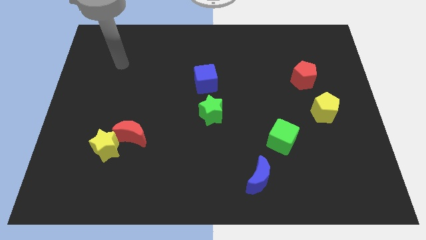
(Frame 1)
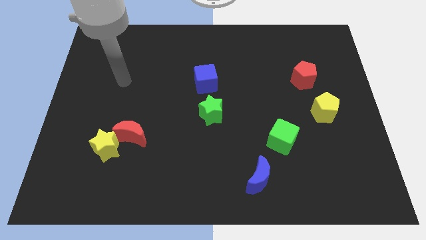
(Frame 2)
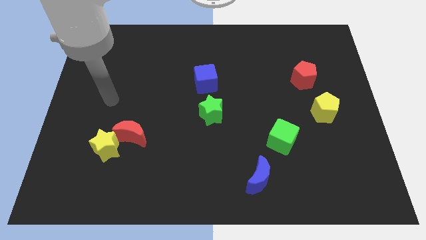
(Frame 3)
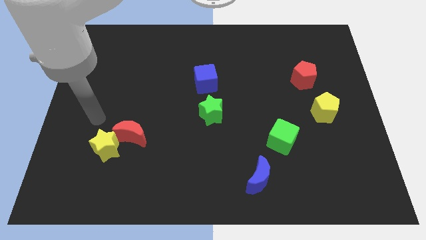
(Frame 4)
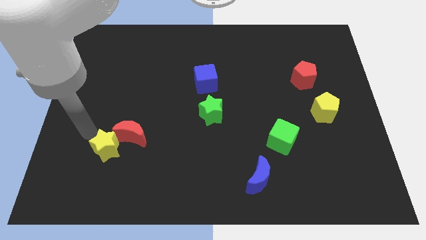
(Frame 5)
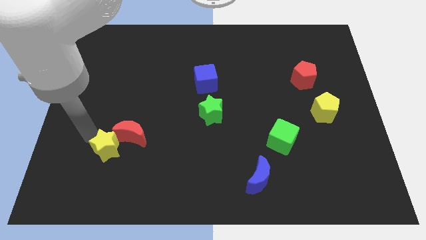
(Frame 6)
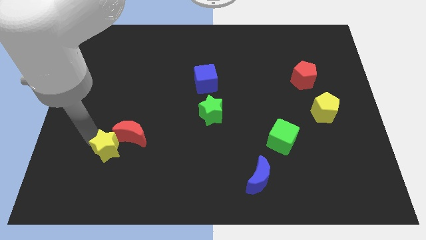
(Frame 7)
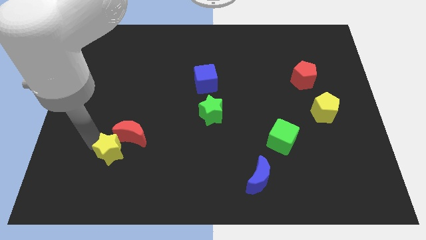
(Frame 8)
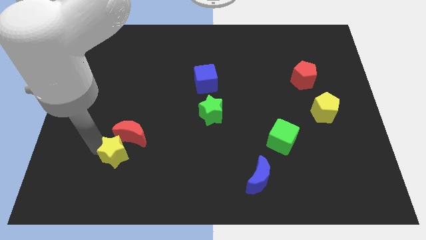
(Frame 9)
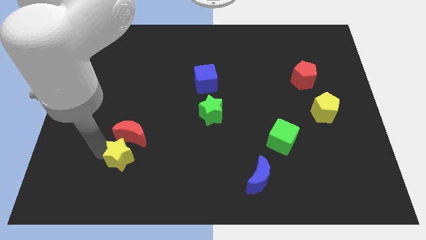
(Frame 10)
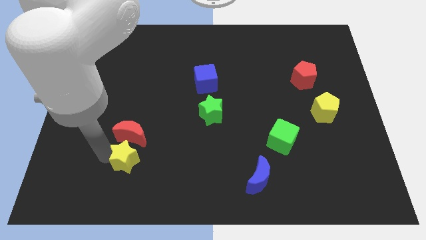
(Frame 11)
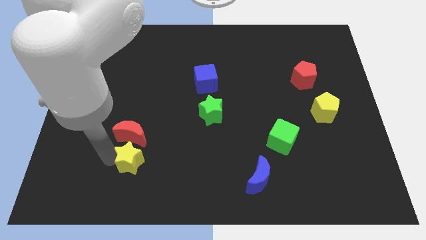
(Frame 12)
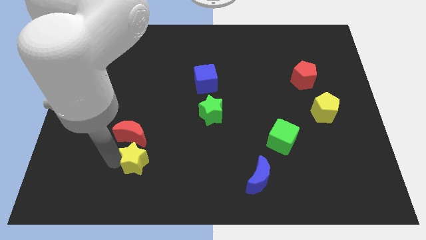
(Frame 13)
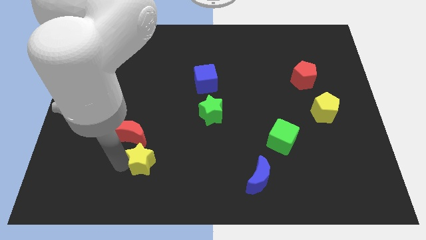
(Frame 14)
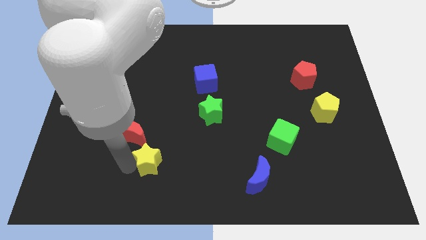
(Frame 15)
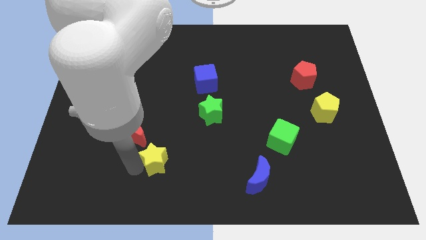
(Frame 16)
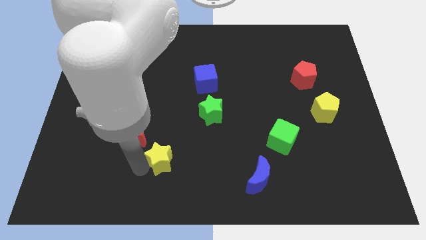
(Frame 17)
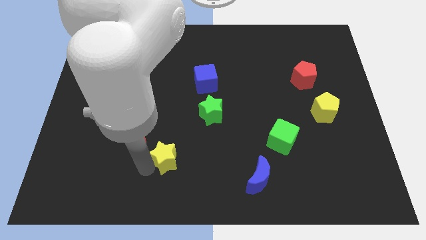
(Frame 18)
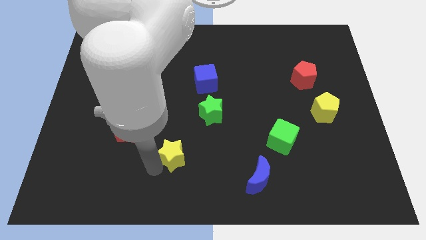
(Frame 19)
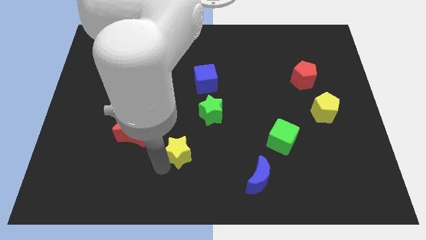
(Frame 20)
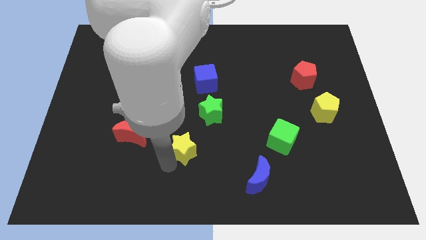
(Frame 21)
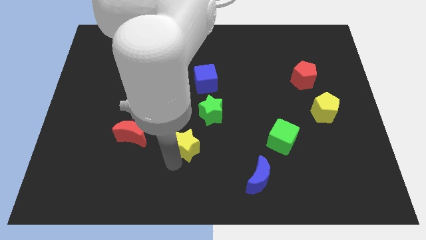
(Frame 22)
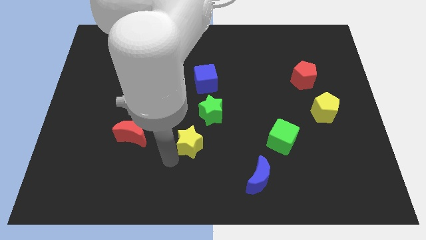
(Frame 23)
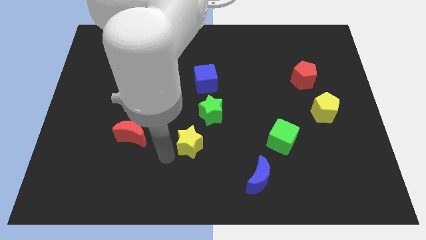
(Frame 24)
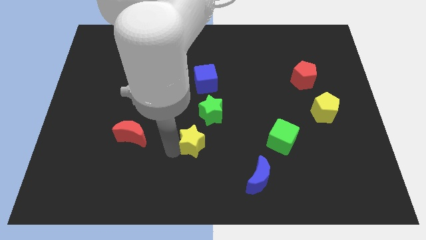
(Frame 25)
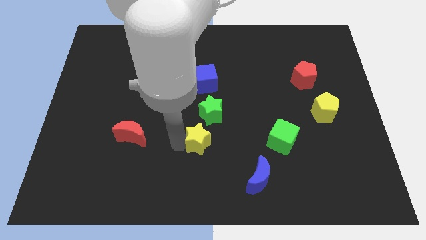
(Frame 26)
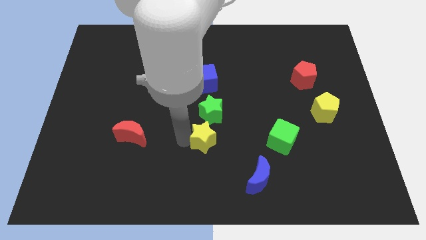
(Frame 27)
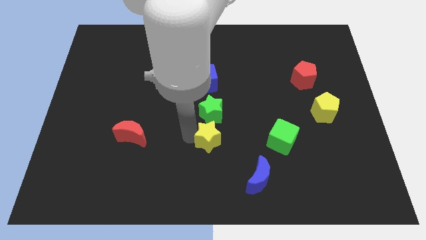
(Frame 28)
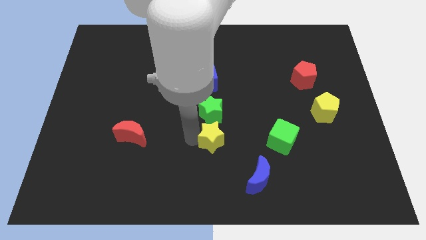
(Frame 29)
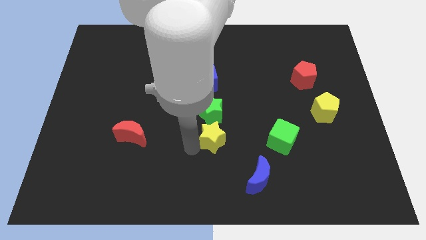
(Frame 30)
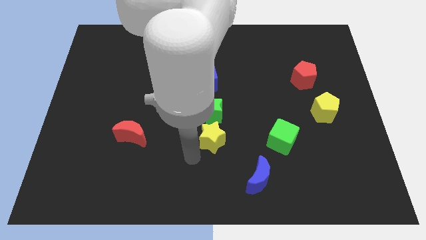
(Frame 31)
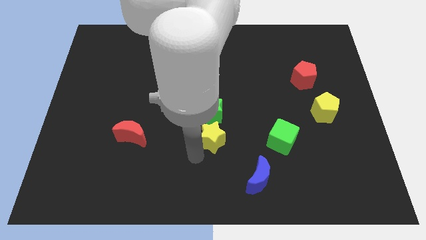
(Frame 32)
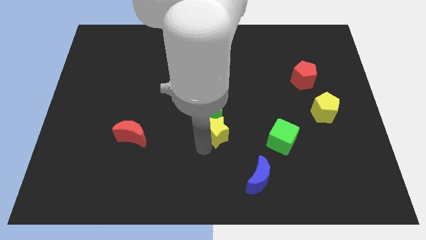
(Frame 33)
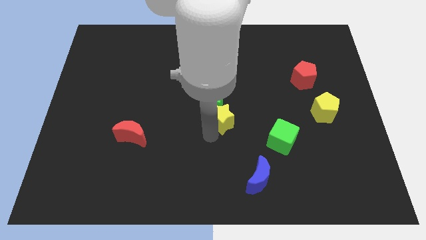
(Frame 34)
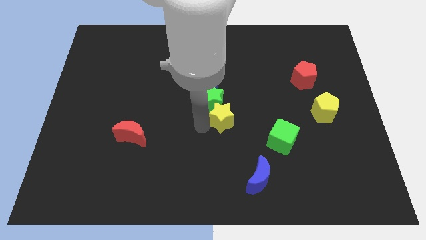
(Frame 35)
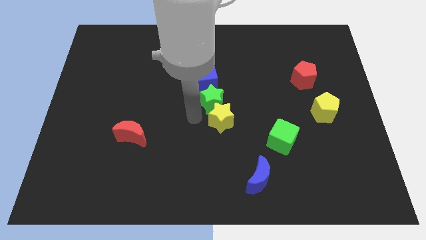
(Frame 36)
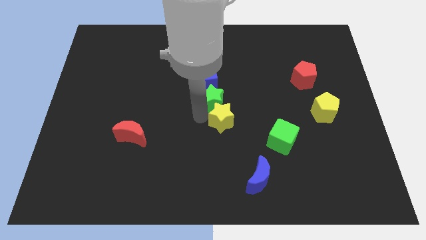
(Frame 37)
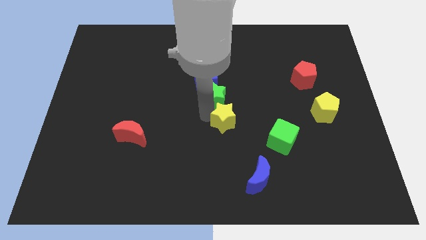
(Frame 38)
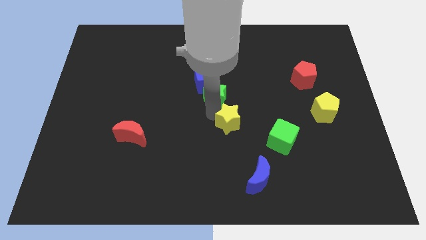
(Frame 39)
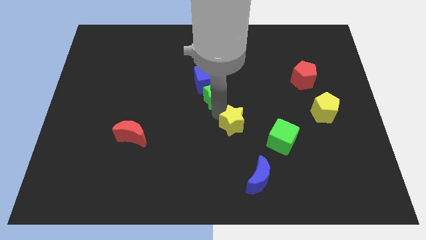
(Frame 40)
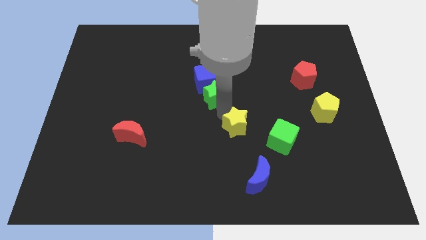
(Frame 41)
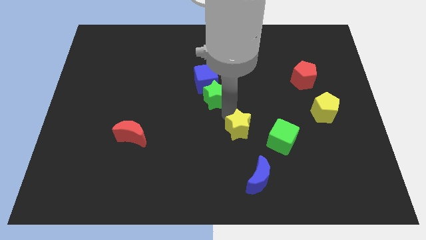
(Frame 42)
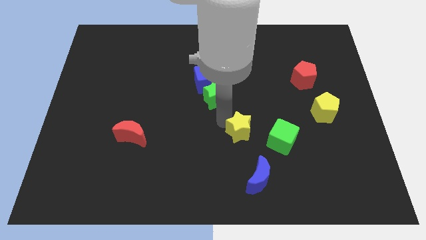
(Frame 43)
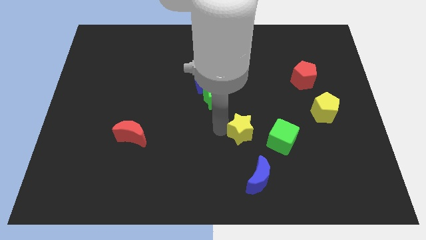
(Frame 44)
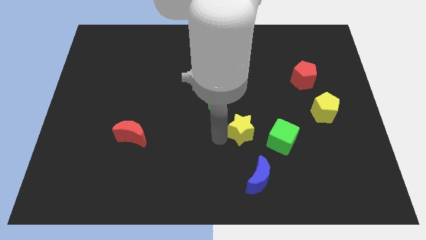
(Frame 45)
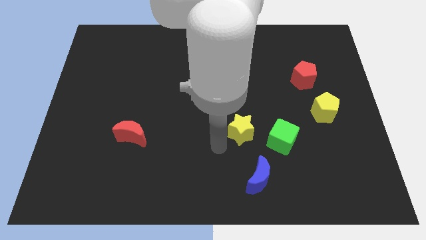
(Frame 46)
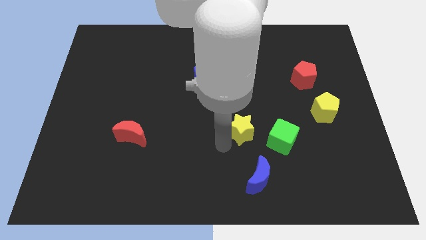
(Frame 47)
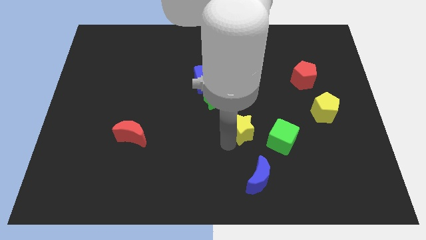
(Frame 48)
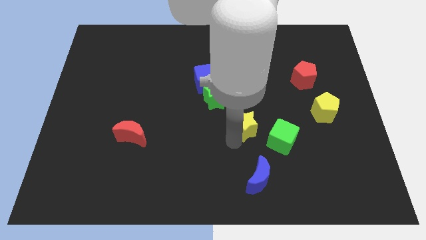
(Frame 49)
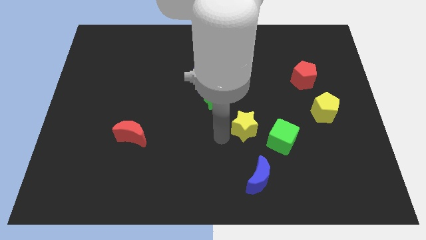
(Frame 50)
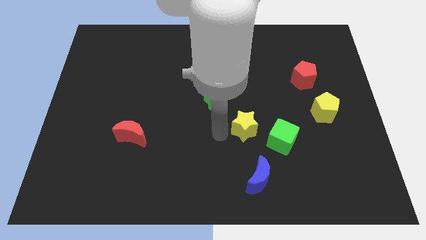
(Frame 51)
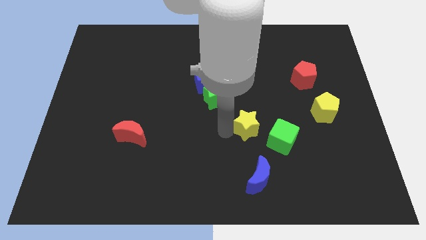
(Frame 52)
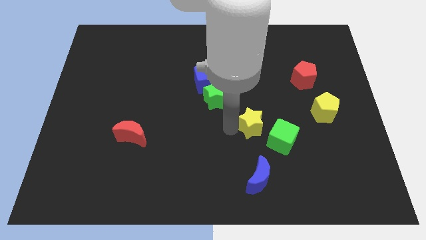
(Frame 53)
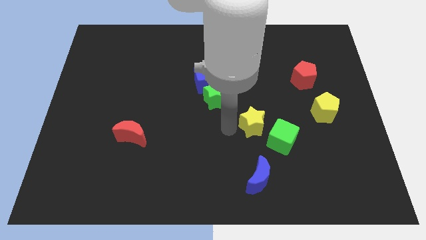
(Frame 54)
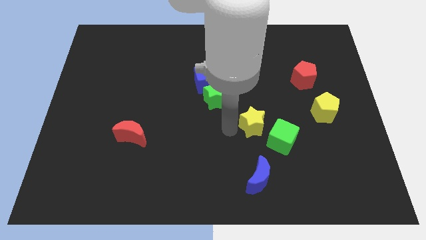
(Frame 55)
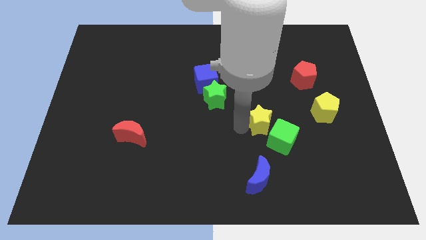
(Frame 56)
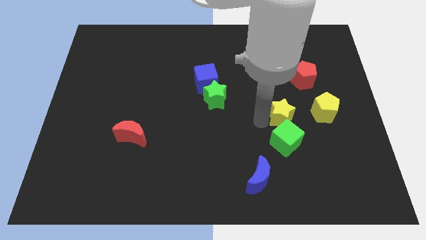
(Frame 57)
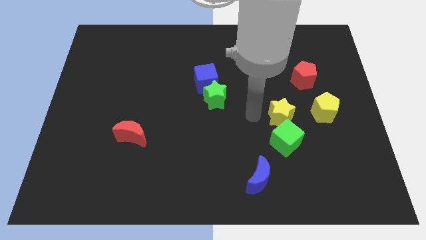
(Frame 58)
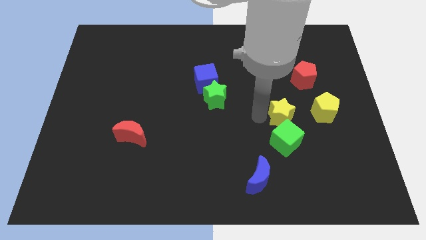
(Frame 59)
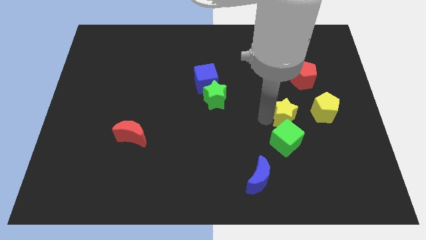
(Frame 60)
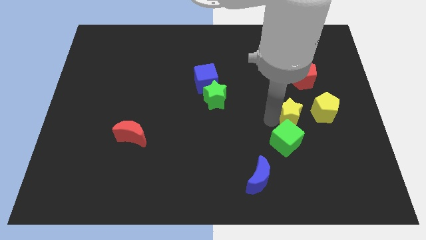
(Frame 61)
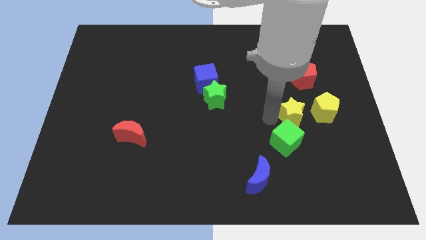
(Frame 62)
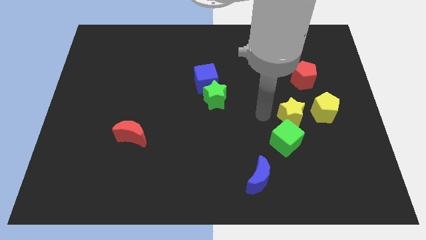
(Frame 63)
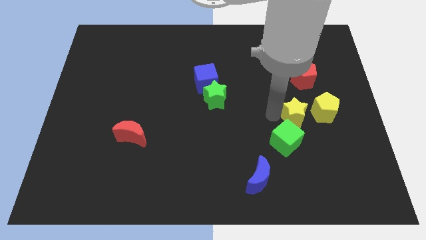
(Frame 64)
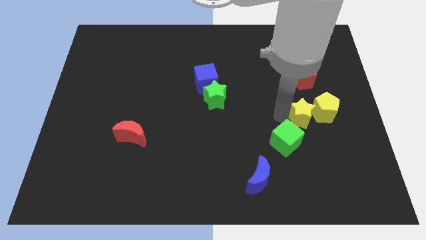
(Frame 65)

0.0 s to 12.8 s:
slide the yellow star to the yellow pentagon

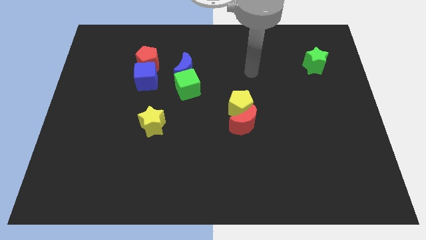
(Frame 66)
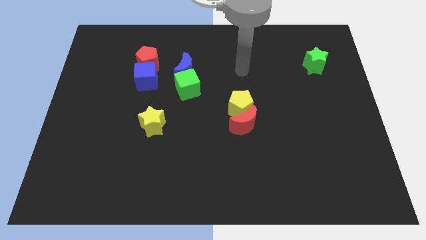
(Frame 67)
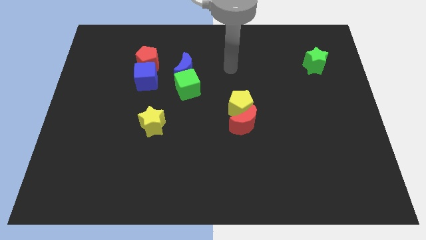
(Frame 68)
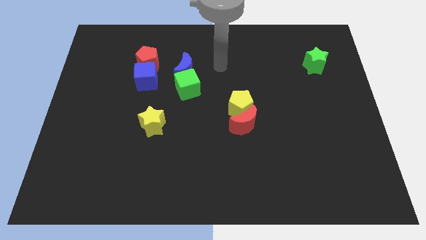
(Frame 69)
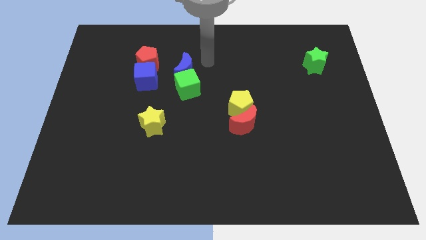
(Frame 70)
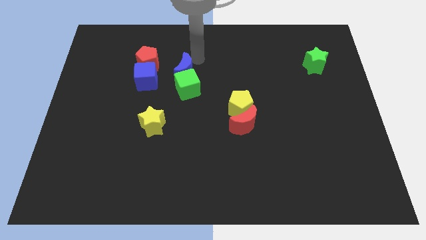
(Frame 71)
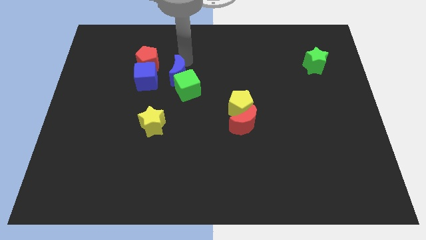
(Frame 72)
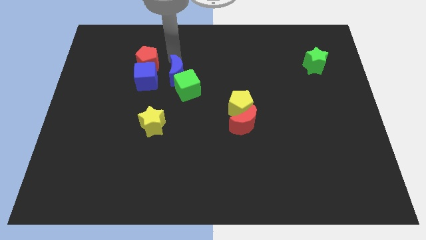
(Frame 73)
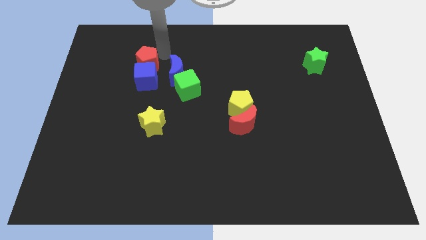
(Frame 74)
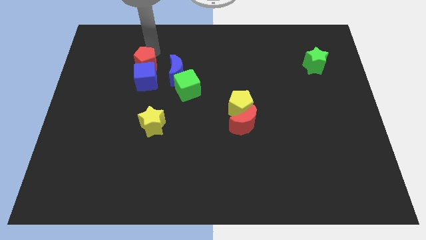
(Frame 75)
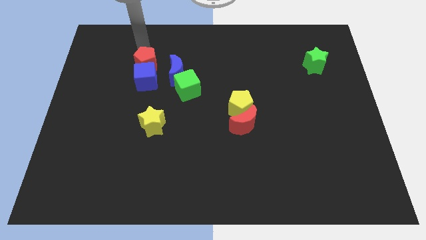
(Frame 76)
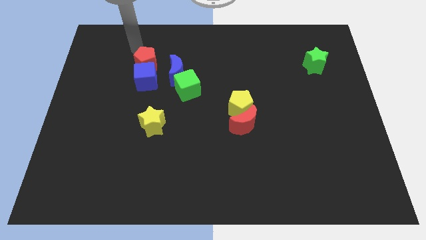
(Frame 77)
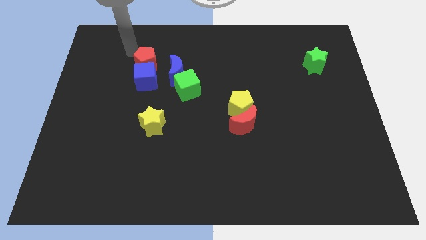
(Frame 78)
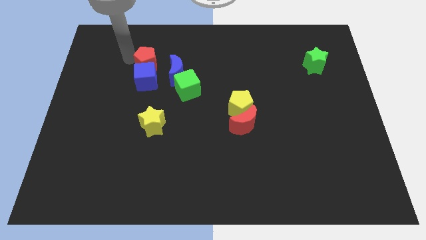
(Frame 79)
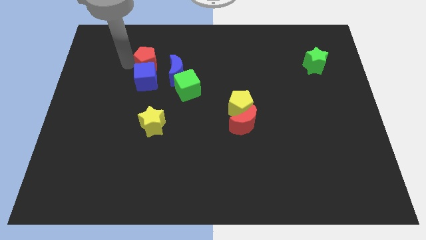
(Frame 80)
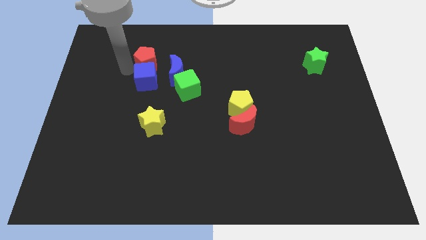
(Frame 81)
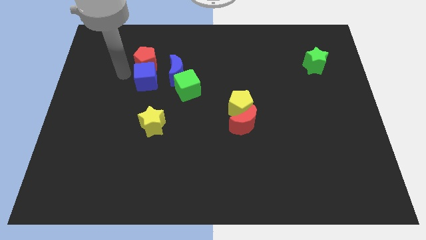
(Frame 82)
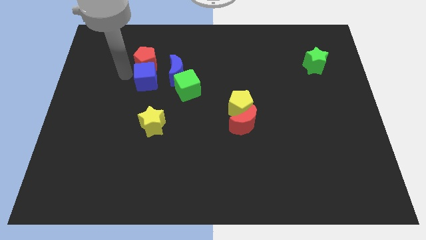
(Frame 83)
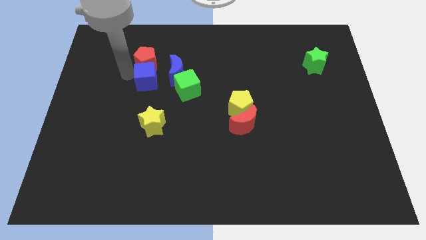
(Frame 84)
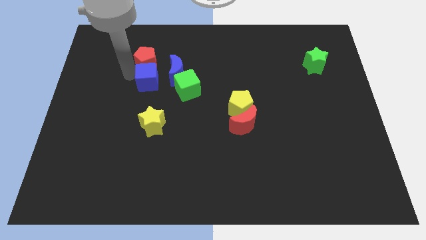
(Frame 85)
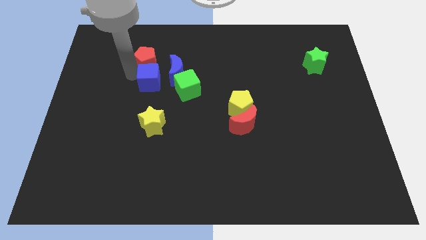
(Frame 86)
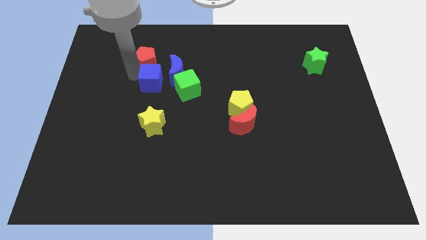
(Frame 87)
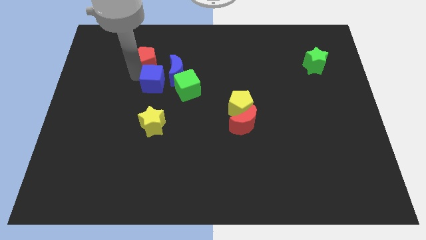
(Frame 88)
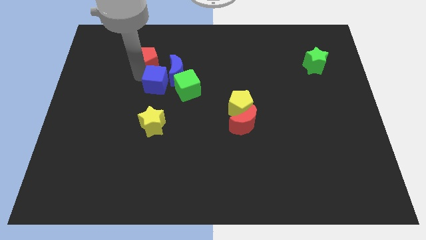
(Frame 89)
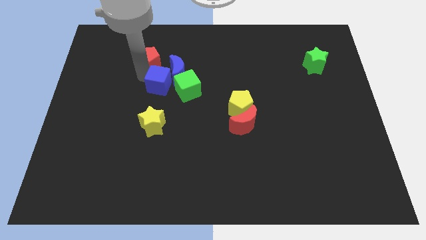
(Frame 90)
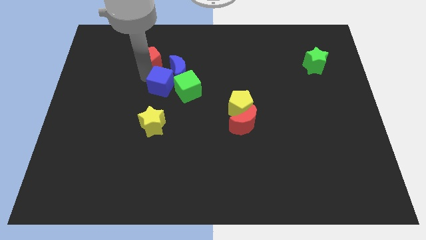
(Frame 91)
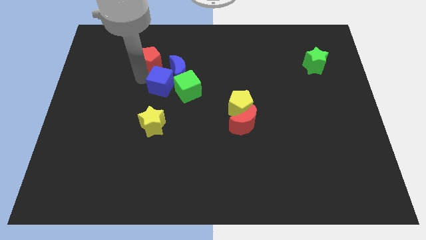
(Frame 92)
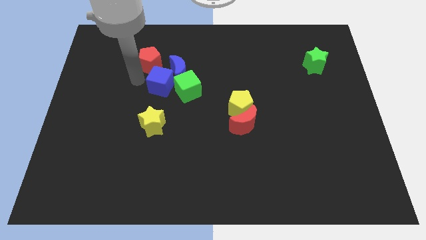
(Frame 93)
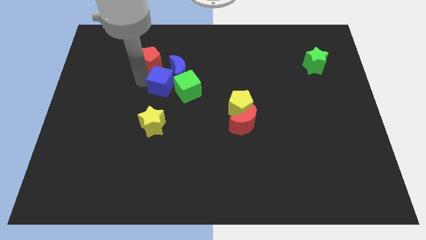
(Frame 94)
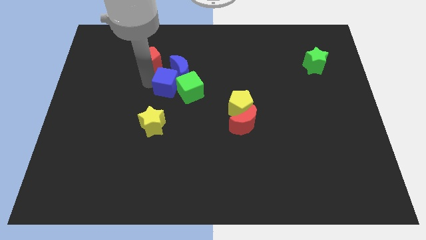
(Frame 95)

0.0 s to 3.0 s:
put the blue cube next to the green cube
